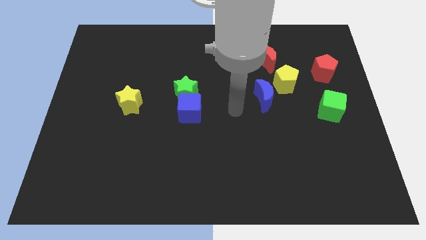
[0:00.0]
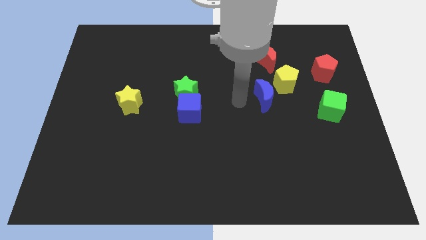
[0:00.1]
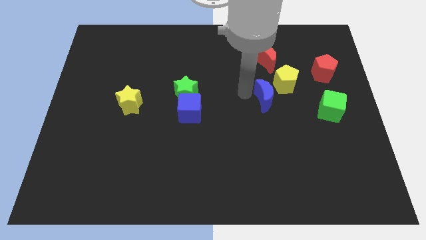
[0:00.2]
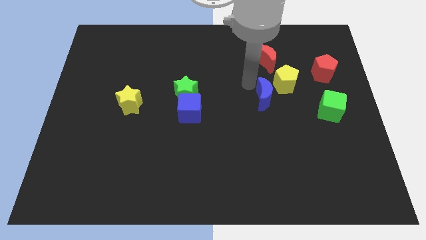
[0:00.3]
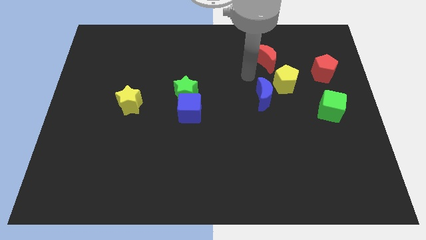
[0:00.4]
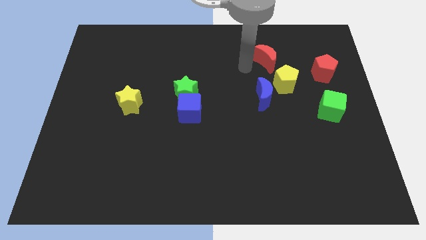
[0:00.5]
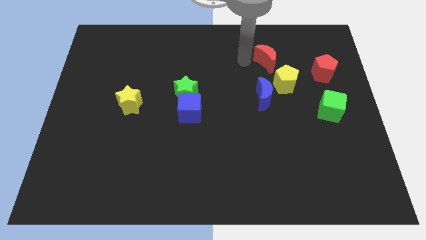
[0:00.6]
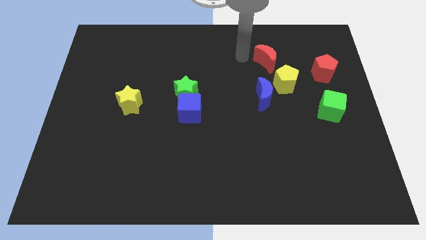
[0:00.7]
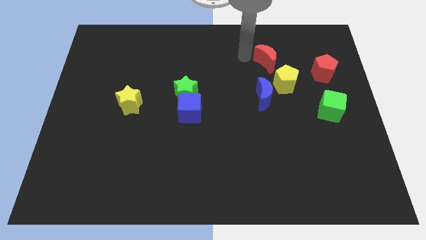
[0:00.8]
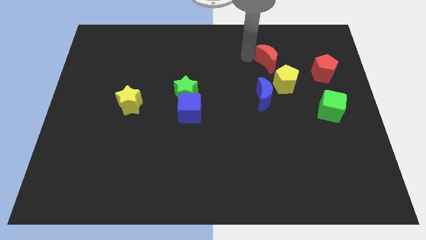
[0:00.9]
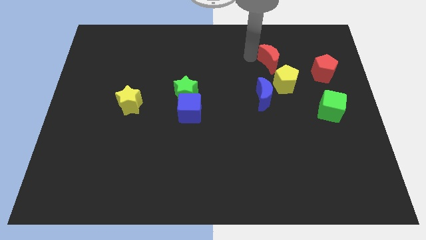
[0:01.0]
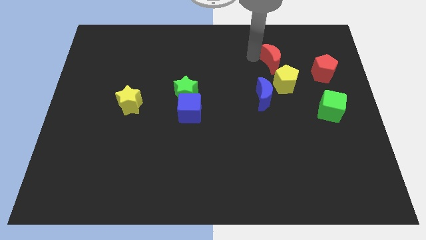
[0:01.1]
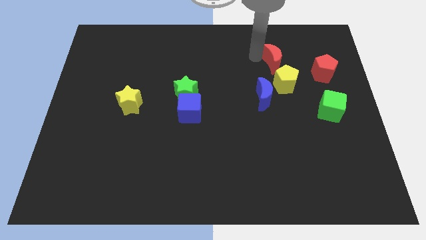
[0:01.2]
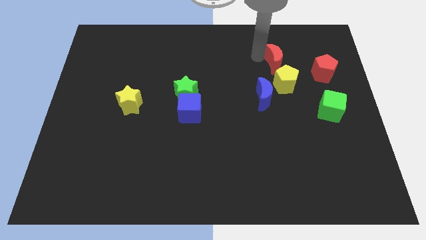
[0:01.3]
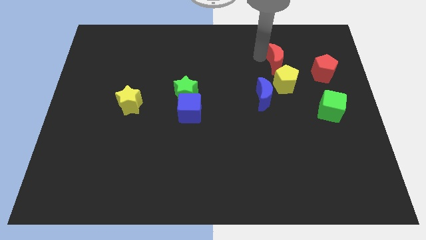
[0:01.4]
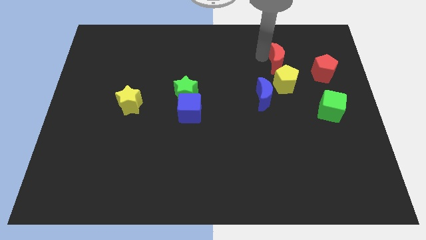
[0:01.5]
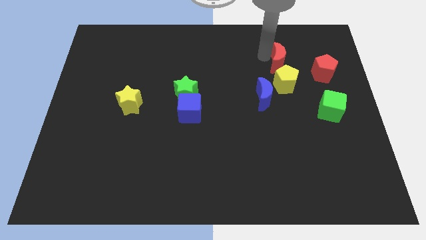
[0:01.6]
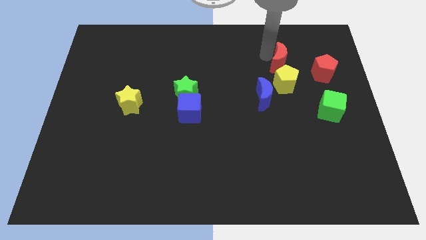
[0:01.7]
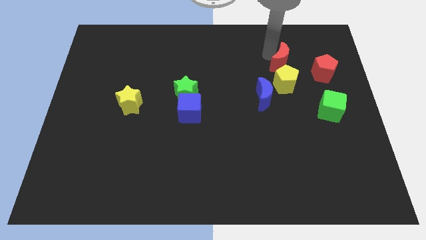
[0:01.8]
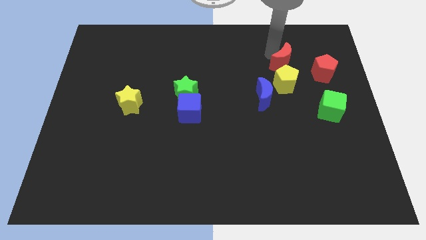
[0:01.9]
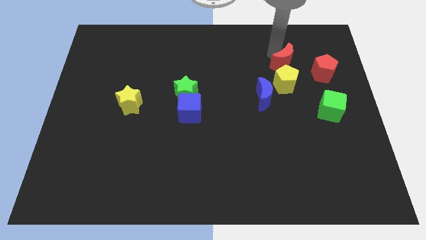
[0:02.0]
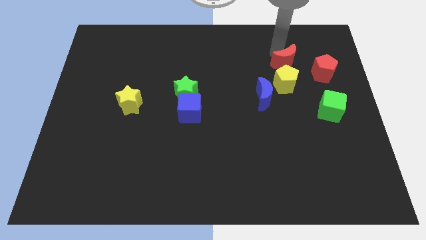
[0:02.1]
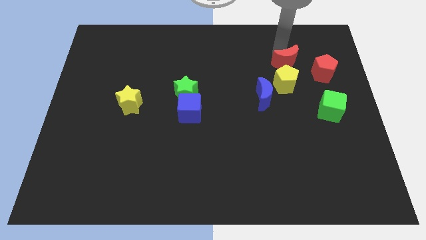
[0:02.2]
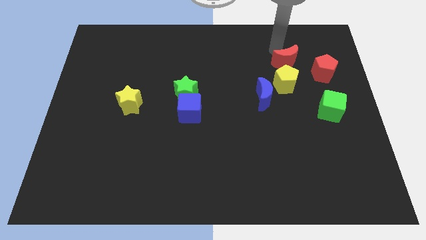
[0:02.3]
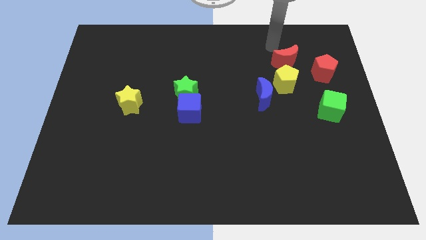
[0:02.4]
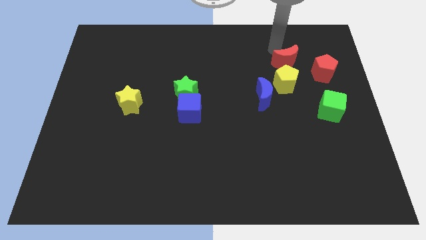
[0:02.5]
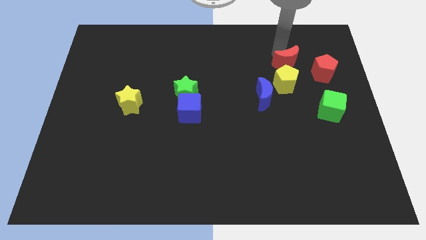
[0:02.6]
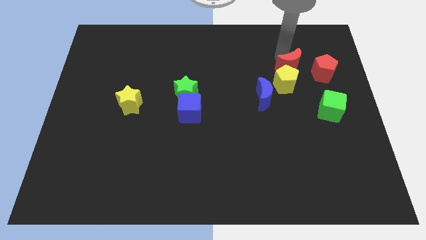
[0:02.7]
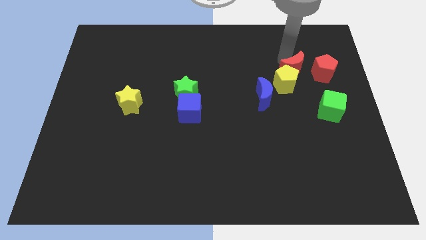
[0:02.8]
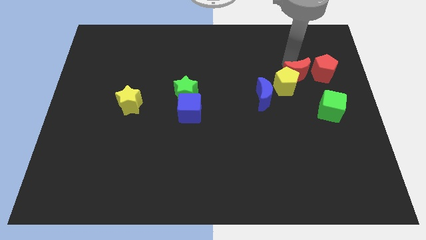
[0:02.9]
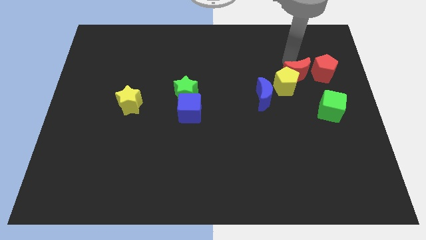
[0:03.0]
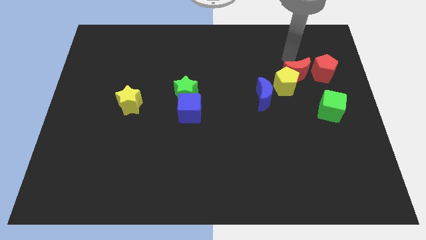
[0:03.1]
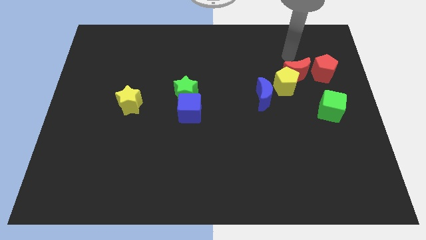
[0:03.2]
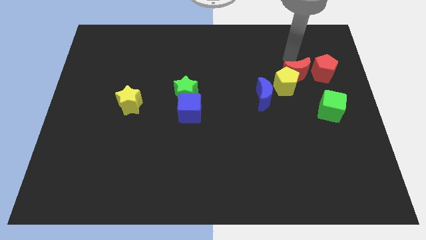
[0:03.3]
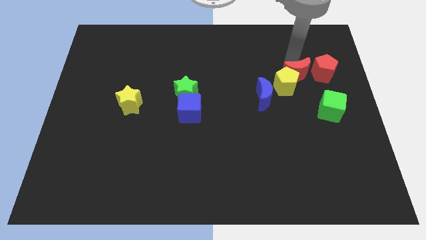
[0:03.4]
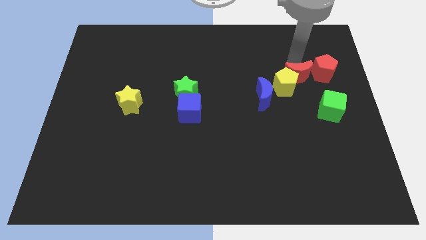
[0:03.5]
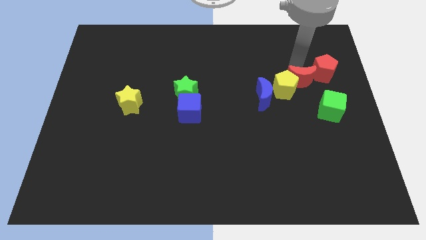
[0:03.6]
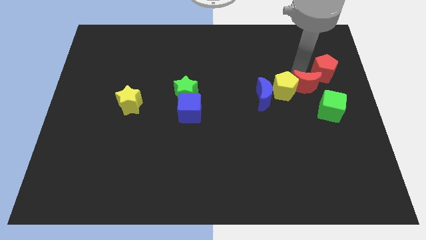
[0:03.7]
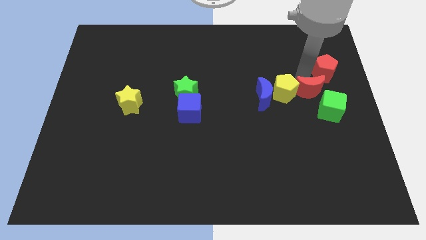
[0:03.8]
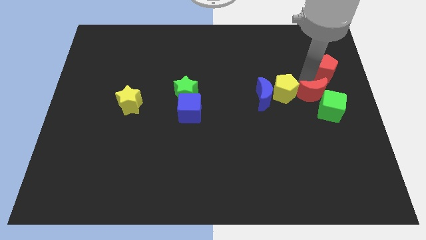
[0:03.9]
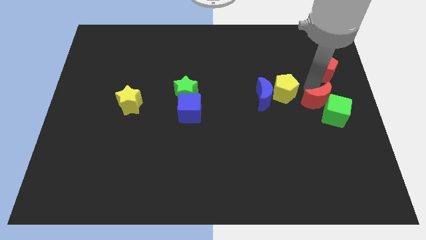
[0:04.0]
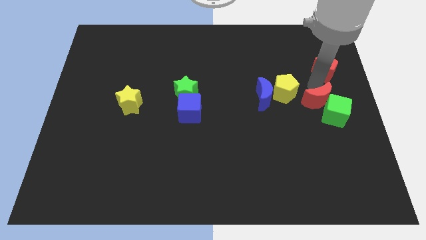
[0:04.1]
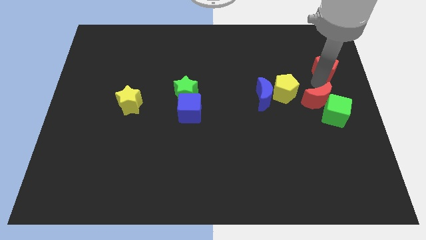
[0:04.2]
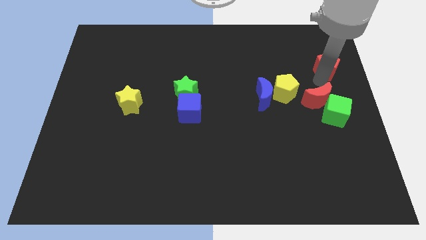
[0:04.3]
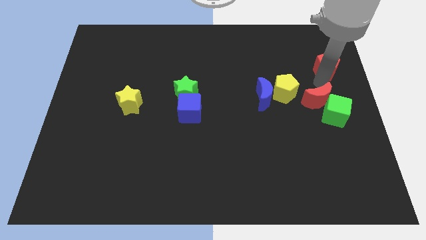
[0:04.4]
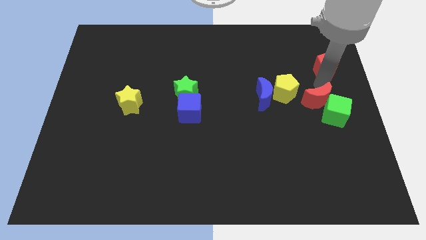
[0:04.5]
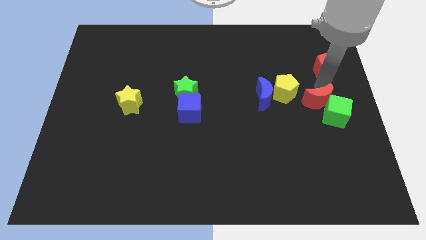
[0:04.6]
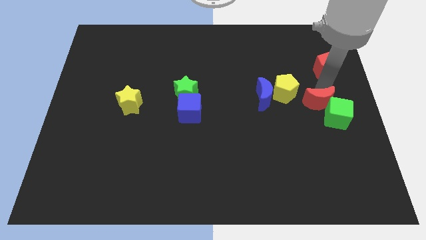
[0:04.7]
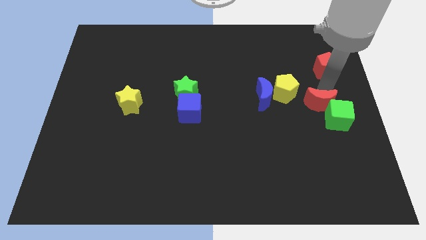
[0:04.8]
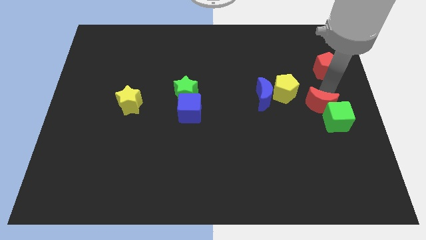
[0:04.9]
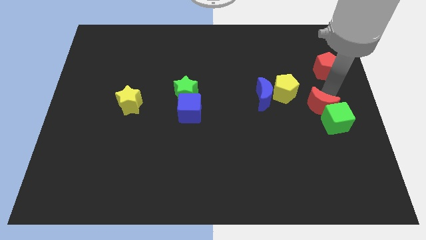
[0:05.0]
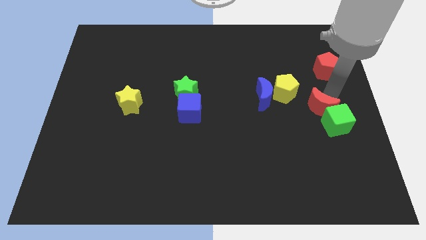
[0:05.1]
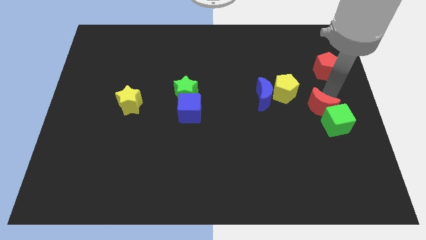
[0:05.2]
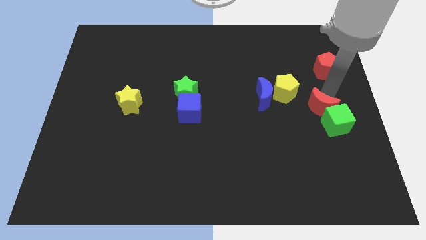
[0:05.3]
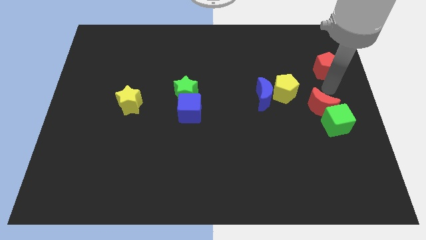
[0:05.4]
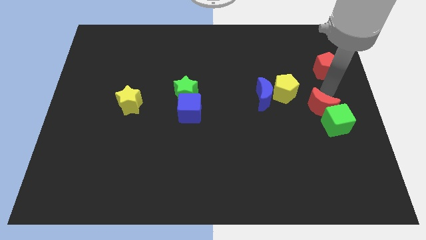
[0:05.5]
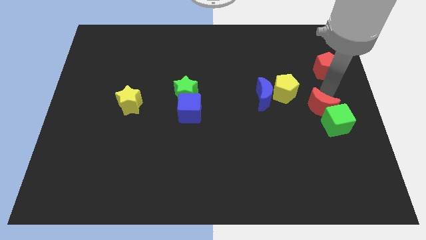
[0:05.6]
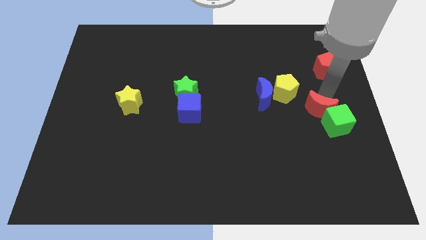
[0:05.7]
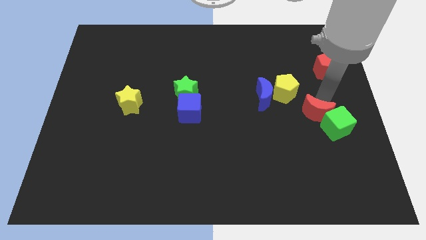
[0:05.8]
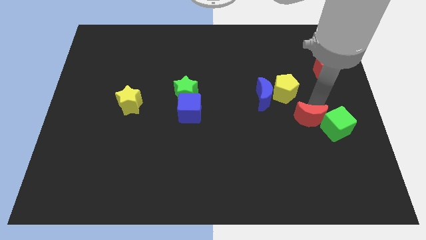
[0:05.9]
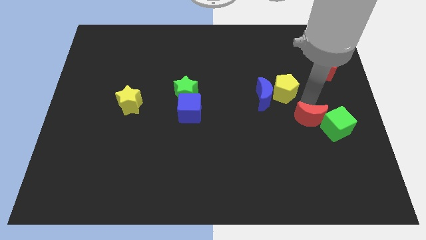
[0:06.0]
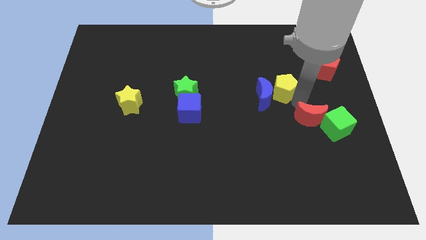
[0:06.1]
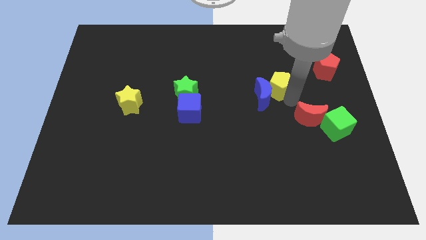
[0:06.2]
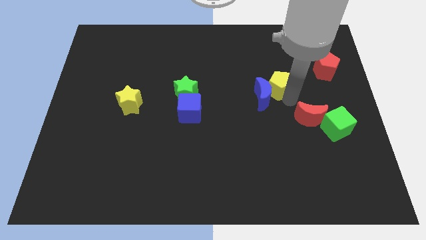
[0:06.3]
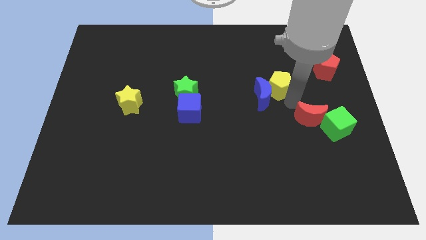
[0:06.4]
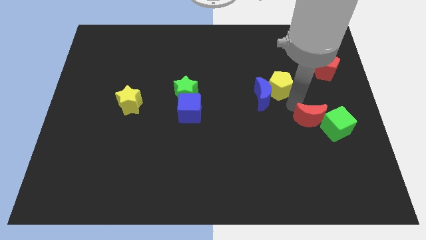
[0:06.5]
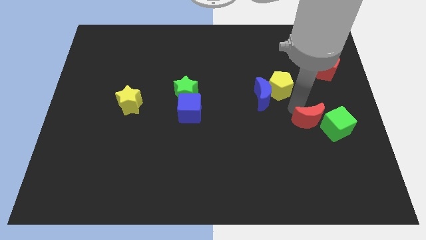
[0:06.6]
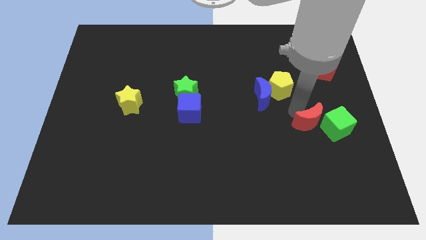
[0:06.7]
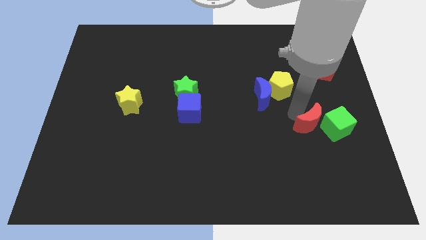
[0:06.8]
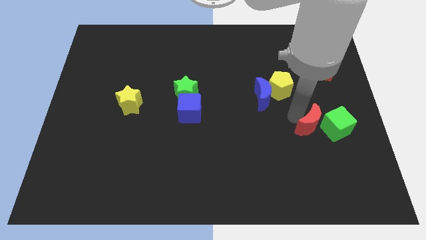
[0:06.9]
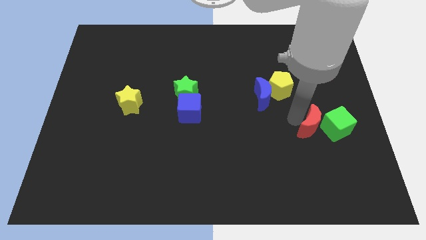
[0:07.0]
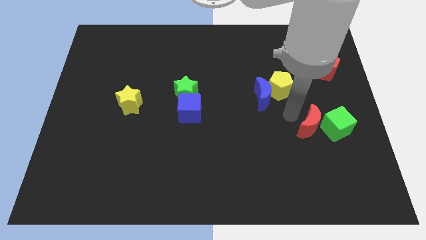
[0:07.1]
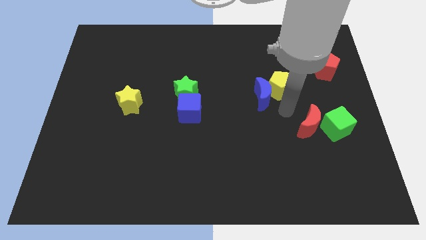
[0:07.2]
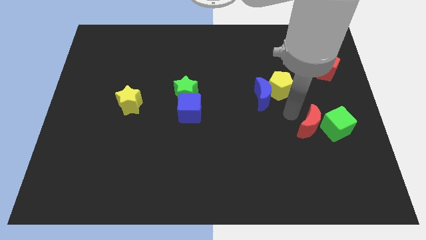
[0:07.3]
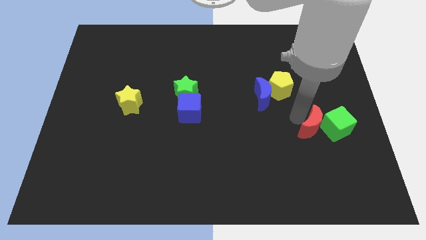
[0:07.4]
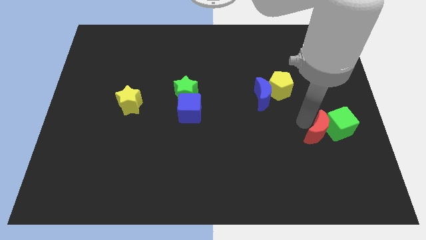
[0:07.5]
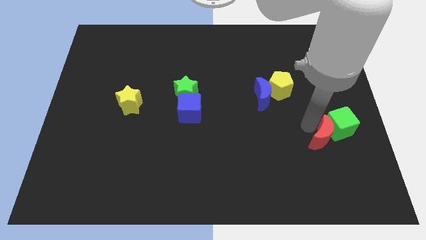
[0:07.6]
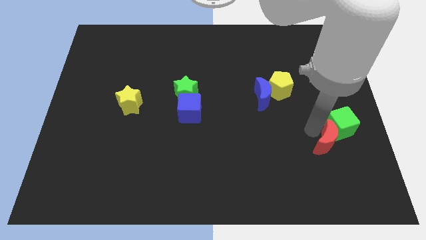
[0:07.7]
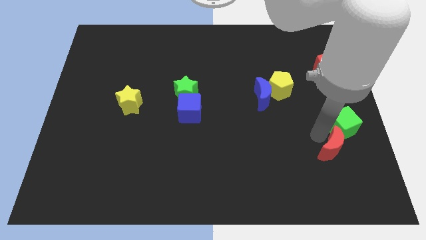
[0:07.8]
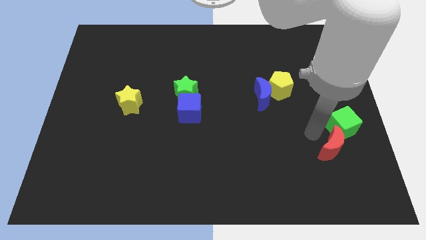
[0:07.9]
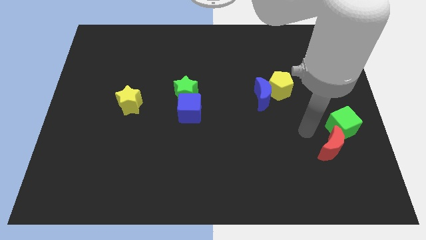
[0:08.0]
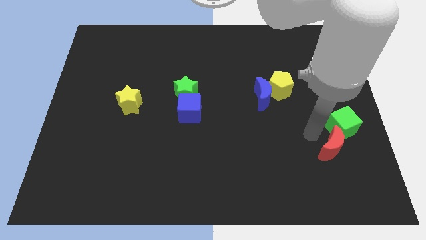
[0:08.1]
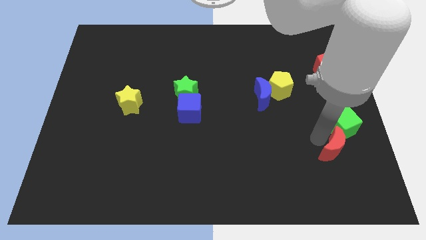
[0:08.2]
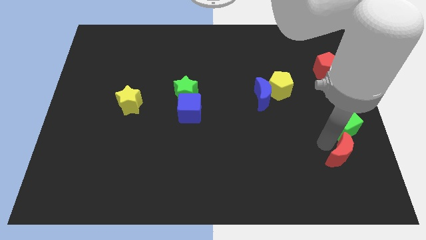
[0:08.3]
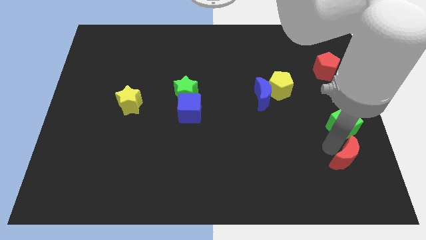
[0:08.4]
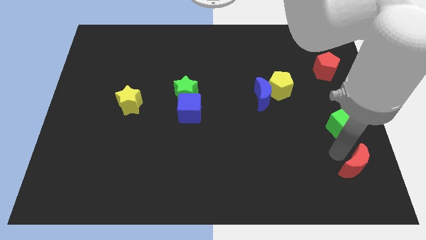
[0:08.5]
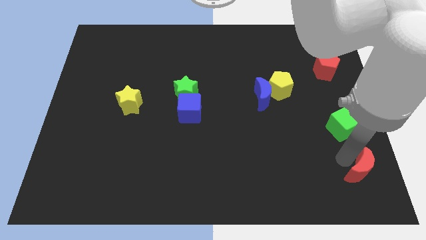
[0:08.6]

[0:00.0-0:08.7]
put the red moon to the lower right corner
